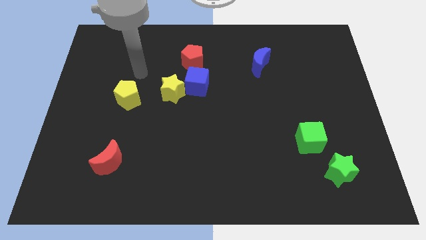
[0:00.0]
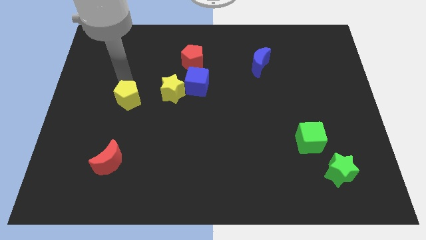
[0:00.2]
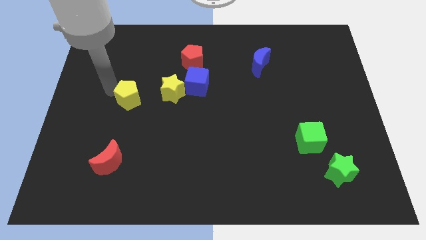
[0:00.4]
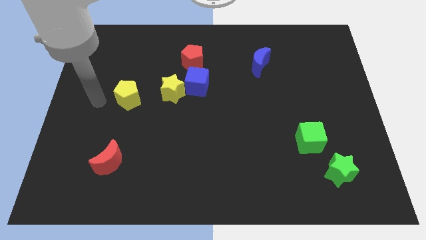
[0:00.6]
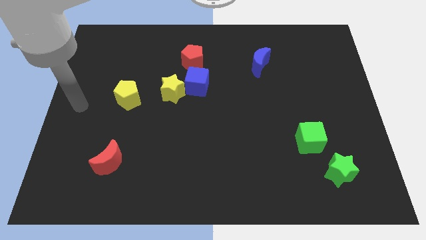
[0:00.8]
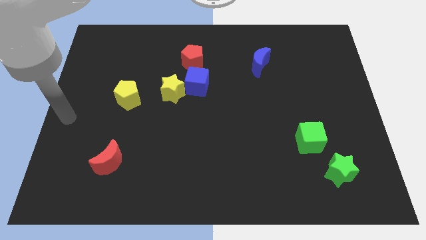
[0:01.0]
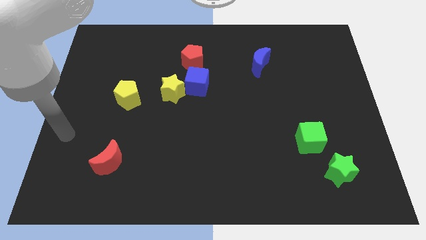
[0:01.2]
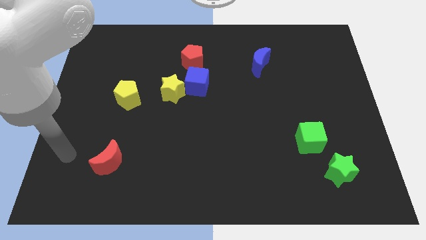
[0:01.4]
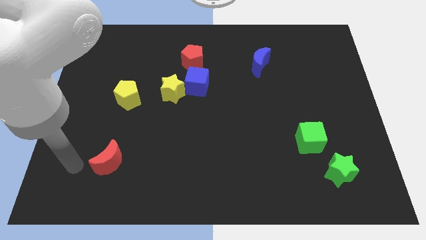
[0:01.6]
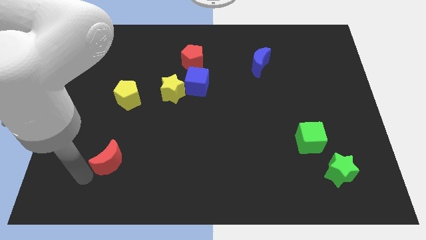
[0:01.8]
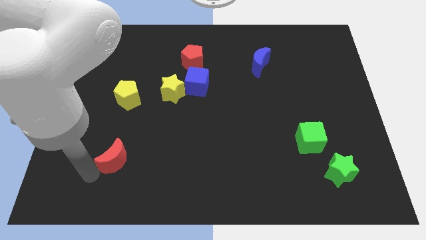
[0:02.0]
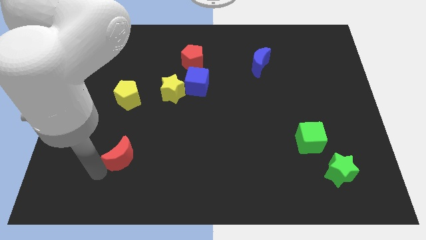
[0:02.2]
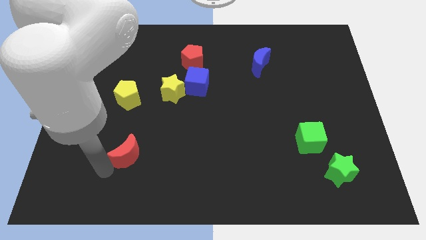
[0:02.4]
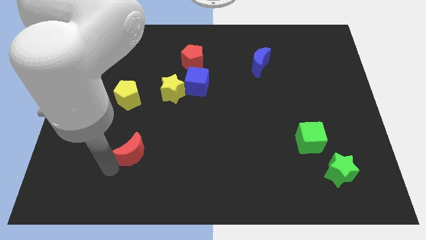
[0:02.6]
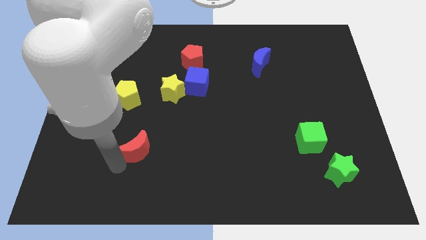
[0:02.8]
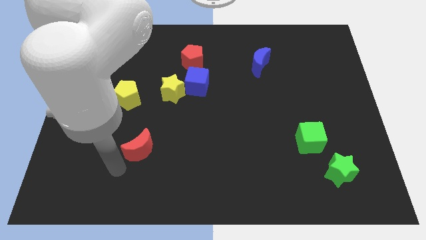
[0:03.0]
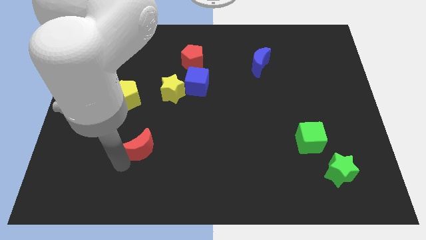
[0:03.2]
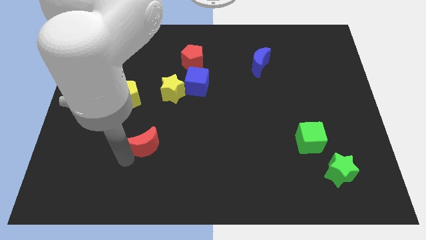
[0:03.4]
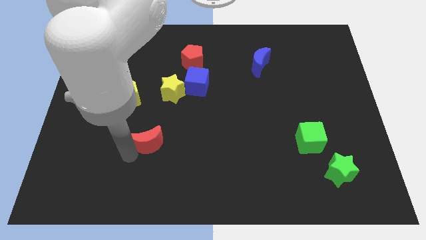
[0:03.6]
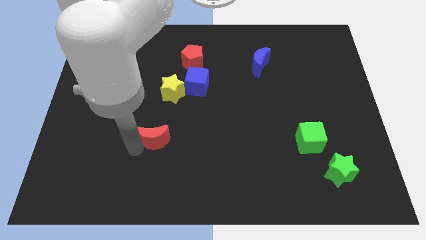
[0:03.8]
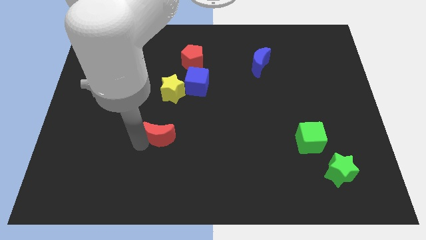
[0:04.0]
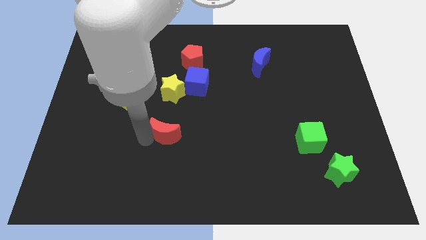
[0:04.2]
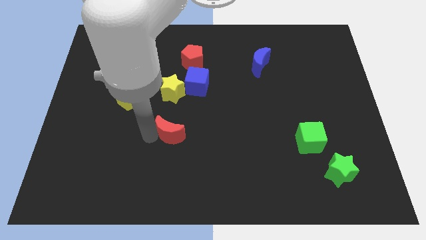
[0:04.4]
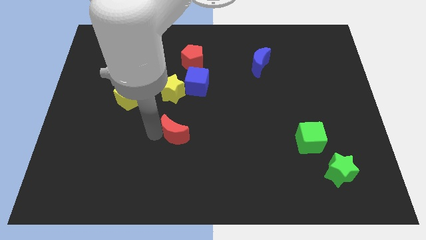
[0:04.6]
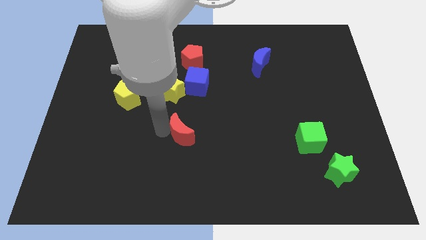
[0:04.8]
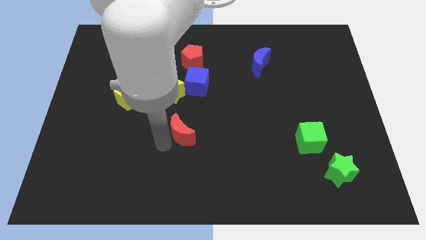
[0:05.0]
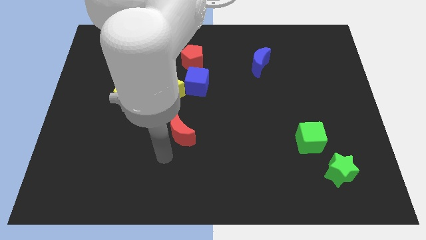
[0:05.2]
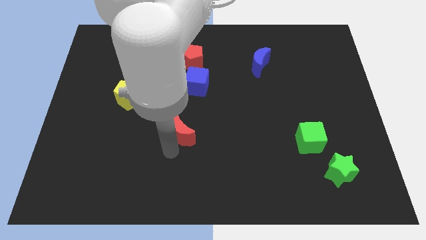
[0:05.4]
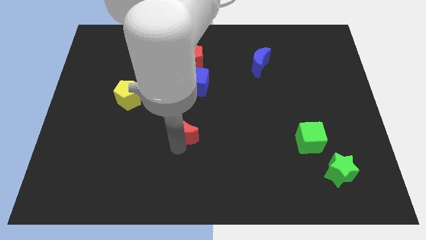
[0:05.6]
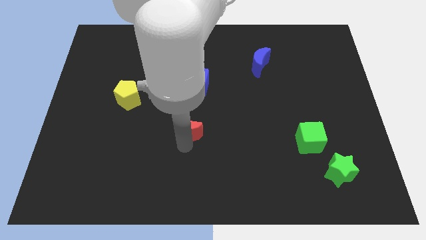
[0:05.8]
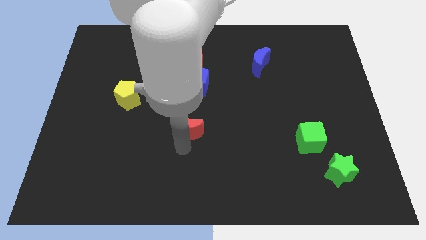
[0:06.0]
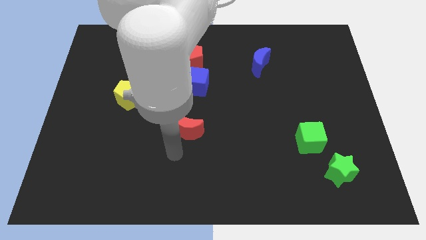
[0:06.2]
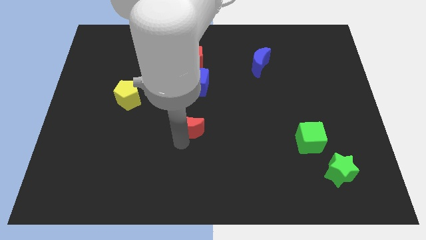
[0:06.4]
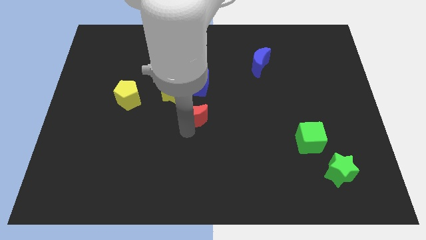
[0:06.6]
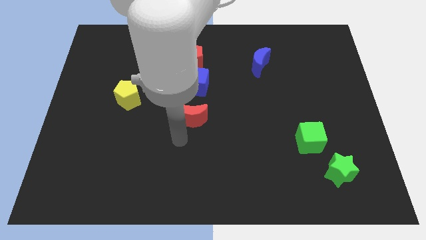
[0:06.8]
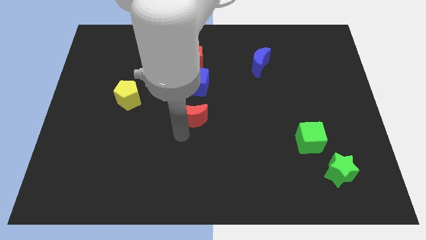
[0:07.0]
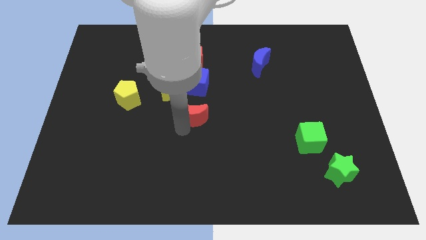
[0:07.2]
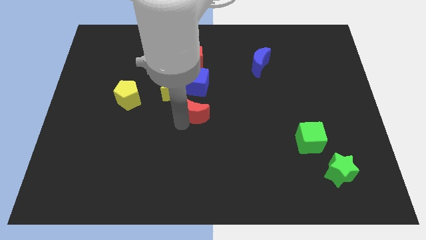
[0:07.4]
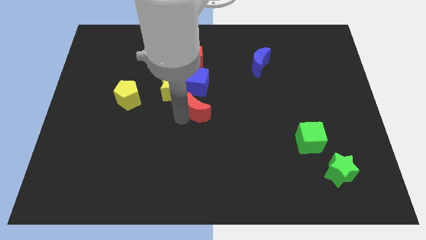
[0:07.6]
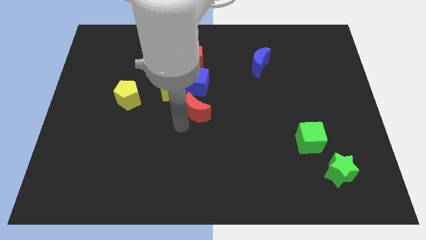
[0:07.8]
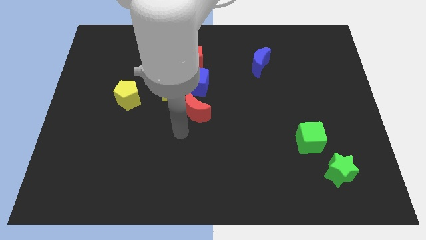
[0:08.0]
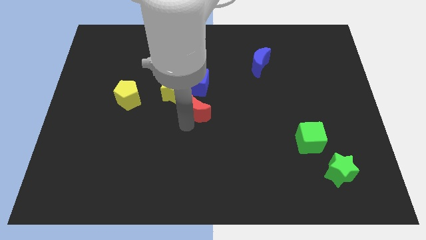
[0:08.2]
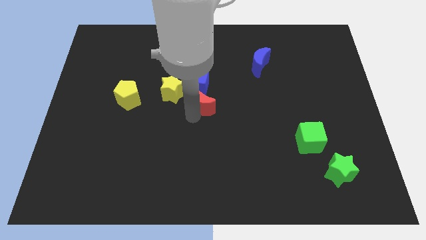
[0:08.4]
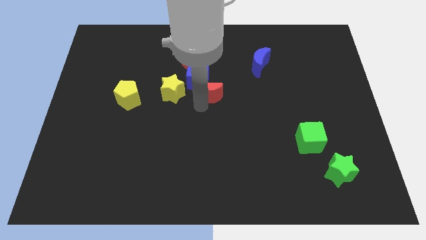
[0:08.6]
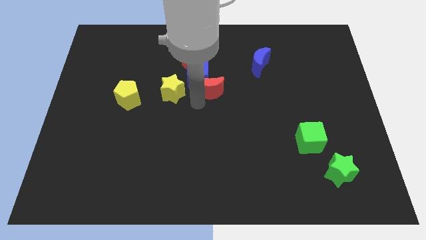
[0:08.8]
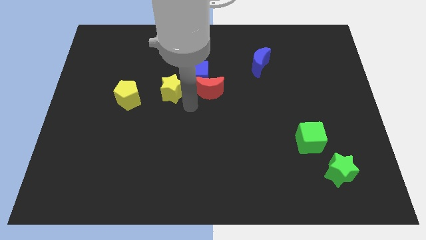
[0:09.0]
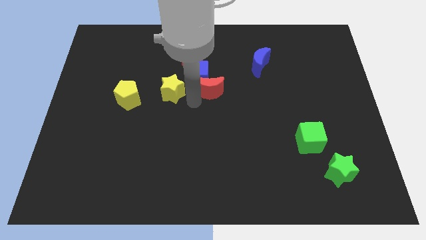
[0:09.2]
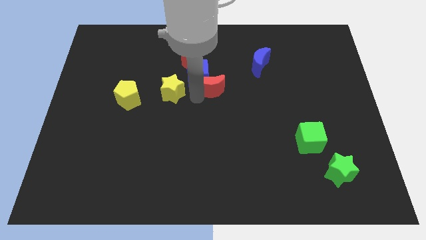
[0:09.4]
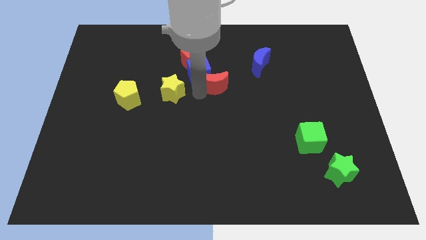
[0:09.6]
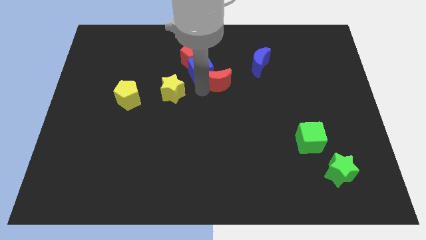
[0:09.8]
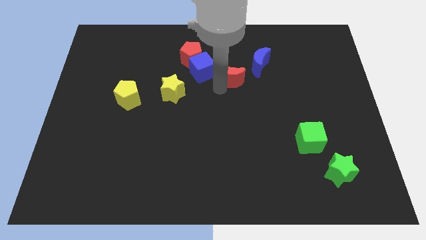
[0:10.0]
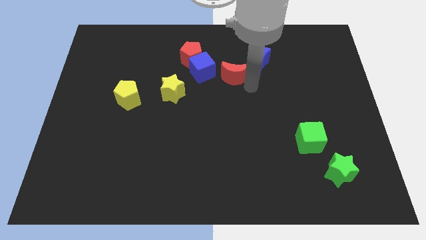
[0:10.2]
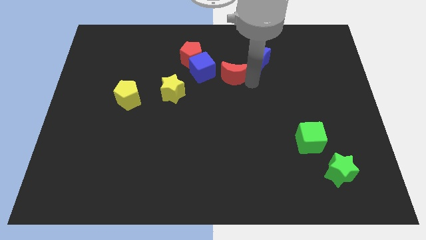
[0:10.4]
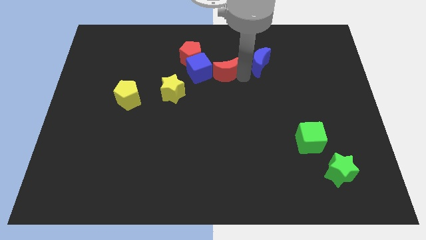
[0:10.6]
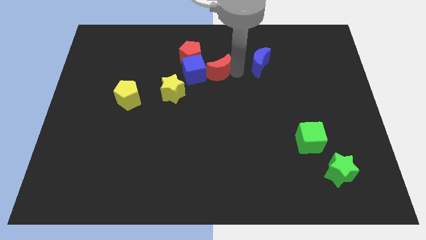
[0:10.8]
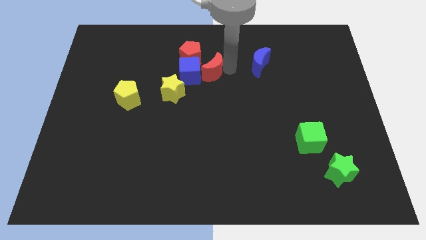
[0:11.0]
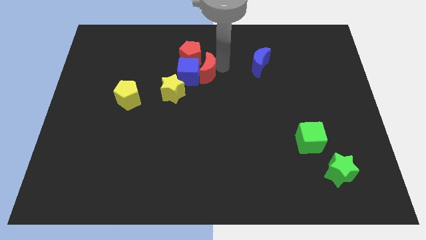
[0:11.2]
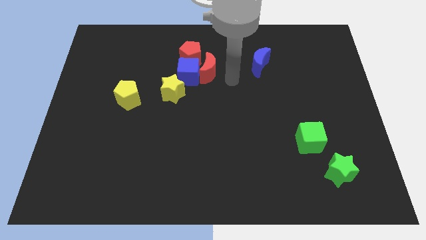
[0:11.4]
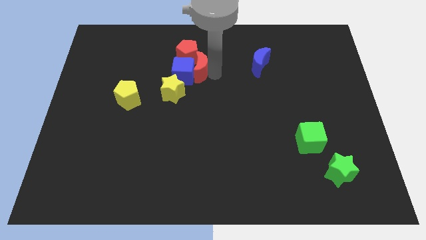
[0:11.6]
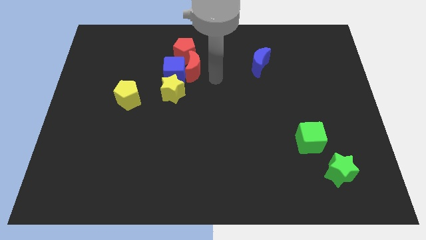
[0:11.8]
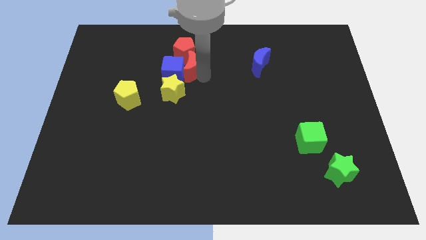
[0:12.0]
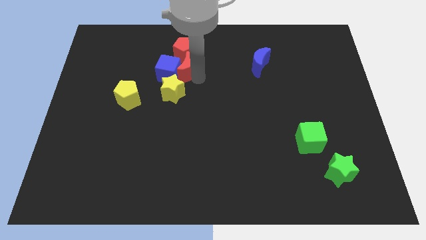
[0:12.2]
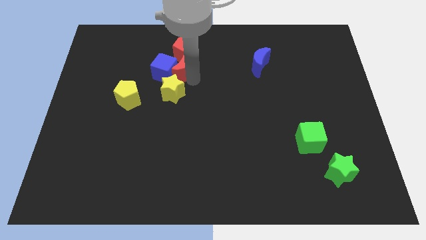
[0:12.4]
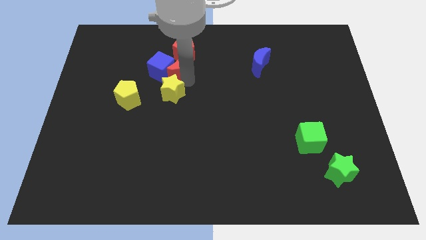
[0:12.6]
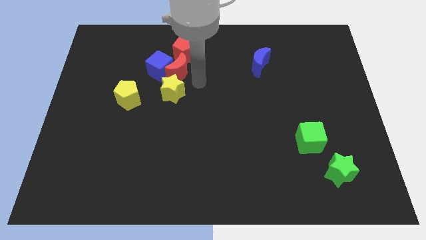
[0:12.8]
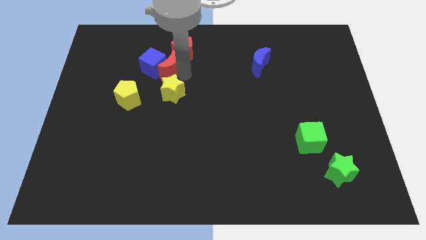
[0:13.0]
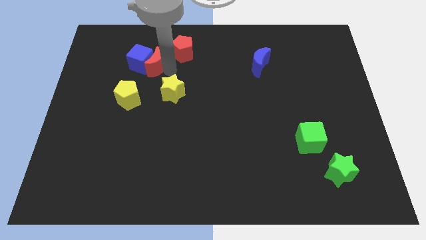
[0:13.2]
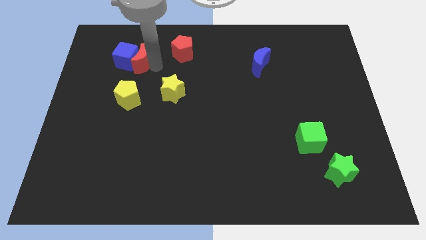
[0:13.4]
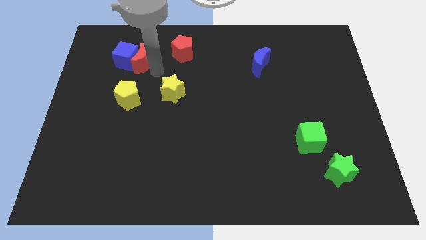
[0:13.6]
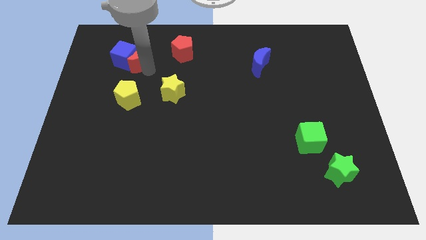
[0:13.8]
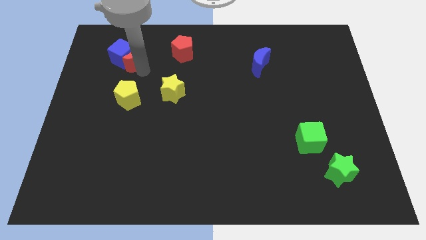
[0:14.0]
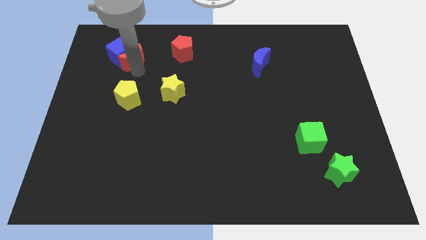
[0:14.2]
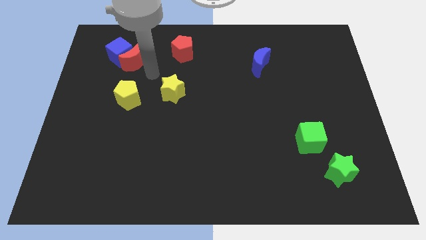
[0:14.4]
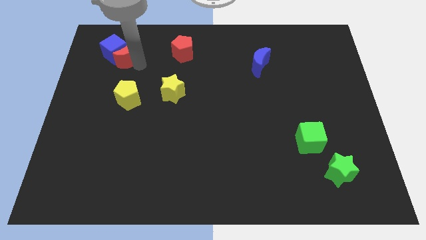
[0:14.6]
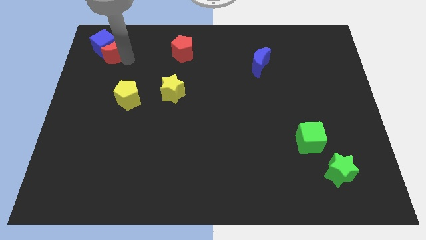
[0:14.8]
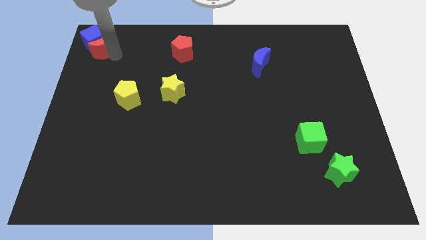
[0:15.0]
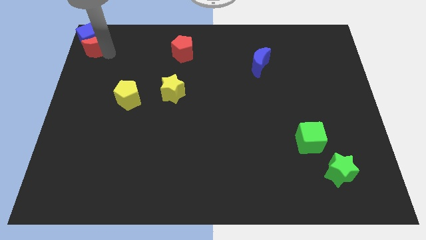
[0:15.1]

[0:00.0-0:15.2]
slide the red moon to the upper left corner
